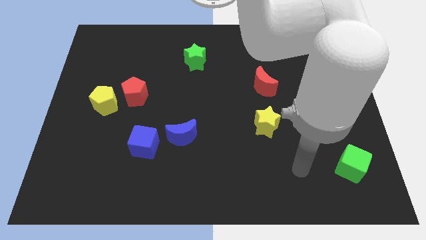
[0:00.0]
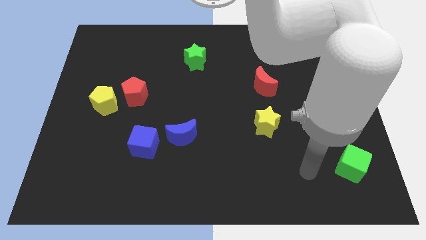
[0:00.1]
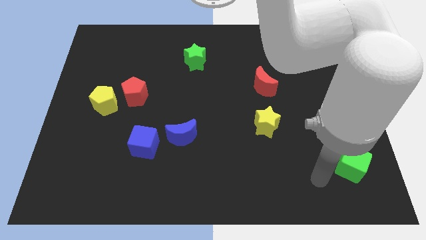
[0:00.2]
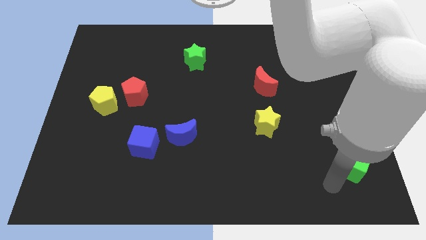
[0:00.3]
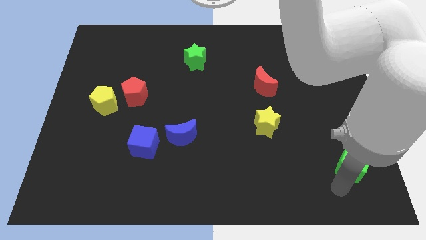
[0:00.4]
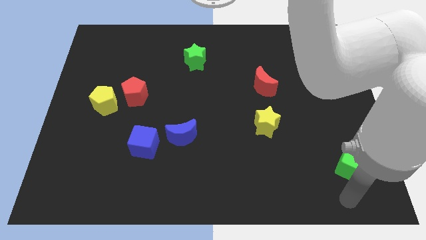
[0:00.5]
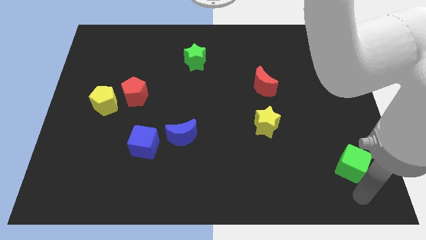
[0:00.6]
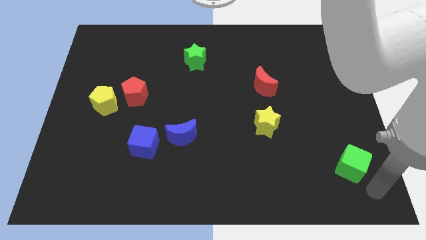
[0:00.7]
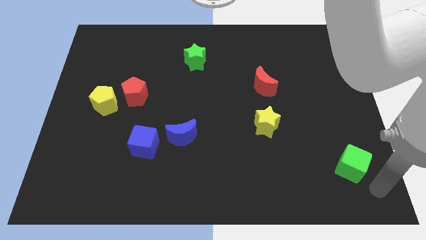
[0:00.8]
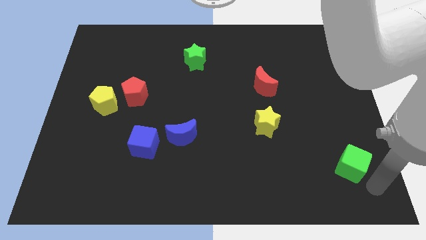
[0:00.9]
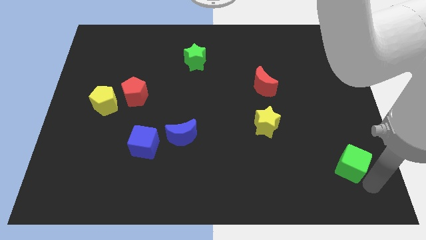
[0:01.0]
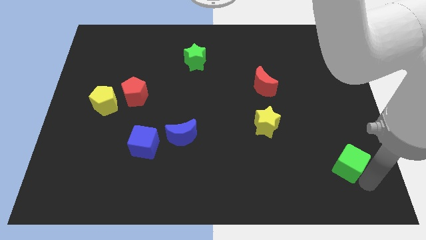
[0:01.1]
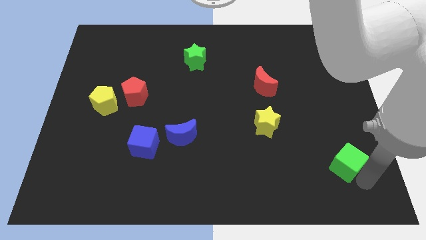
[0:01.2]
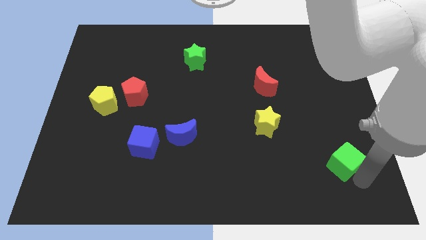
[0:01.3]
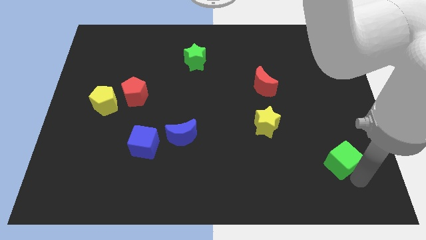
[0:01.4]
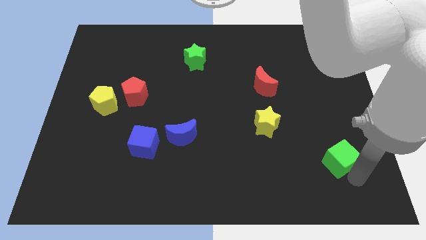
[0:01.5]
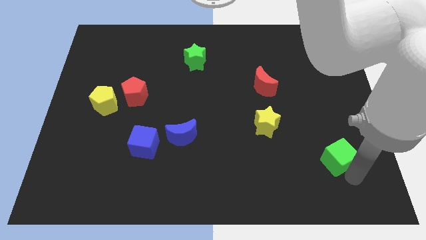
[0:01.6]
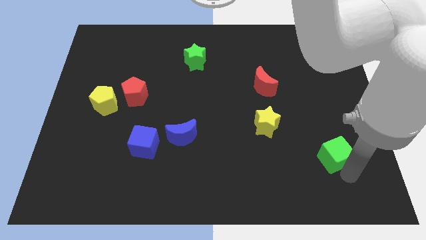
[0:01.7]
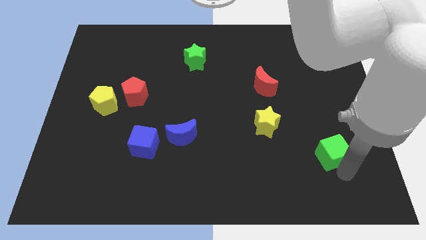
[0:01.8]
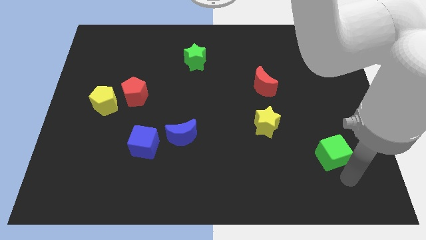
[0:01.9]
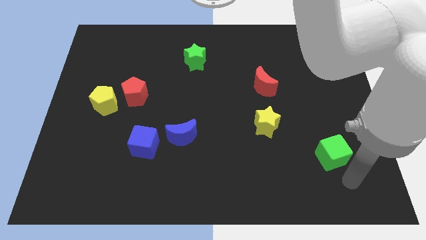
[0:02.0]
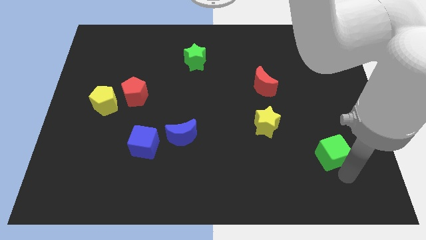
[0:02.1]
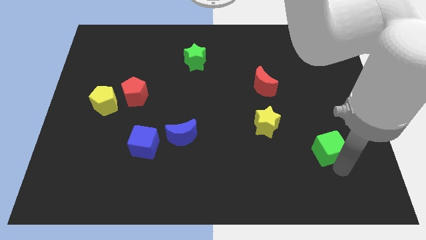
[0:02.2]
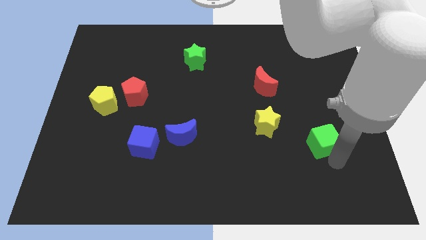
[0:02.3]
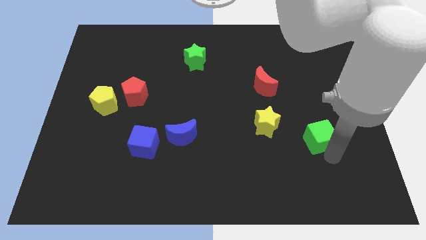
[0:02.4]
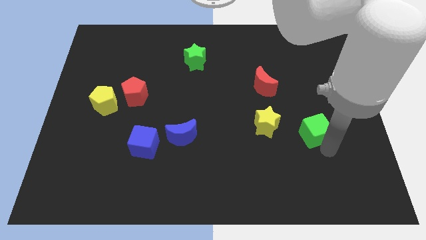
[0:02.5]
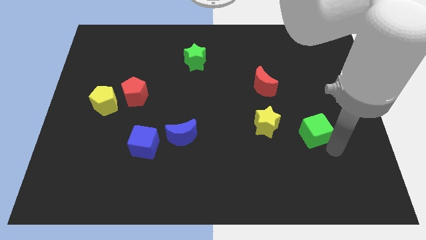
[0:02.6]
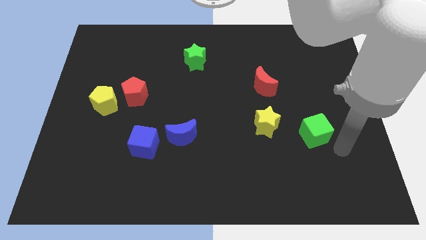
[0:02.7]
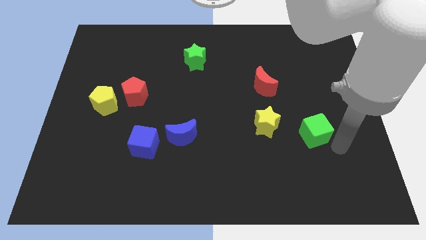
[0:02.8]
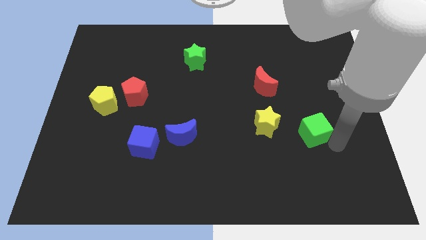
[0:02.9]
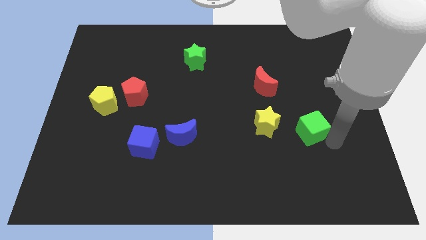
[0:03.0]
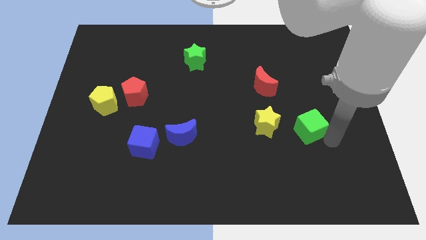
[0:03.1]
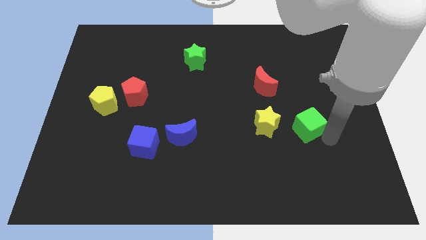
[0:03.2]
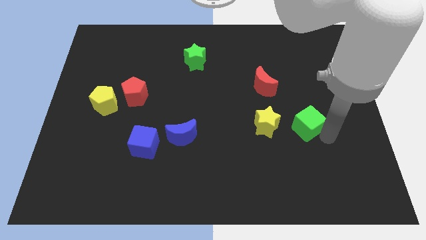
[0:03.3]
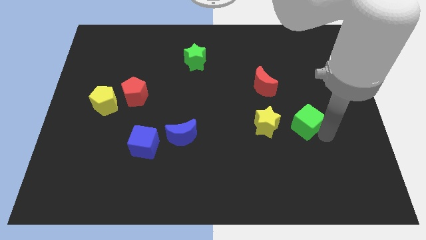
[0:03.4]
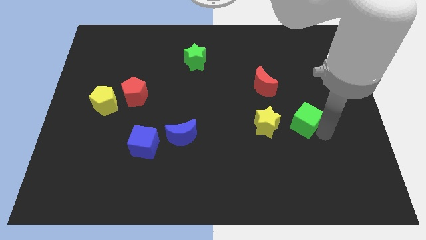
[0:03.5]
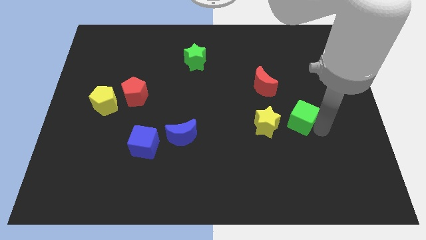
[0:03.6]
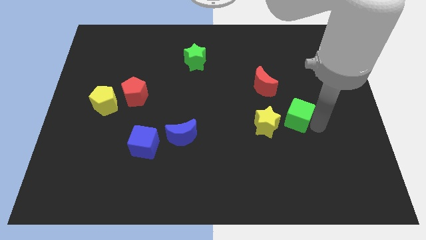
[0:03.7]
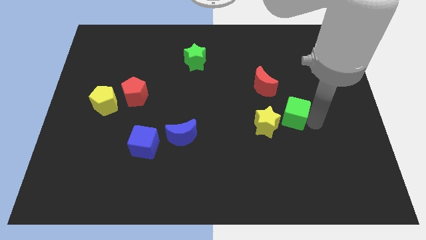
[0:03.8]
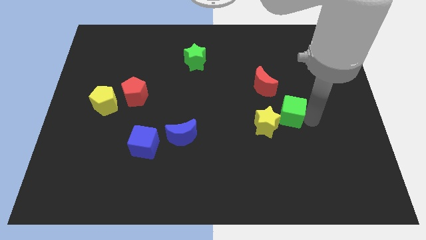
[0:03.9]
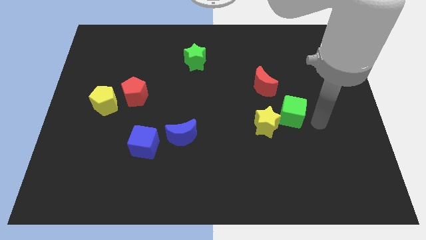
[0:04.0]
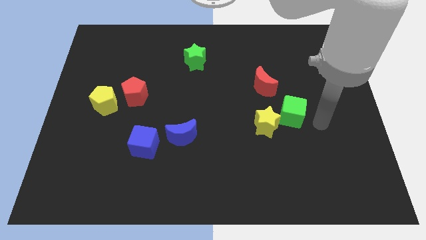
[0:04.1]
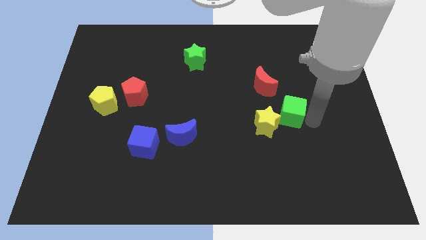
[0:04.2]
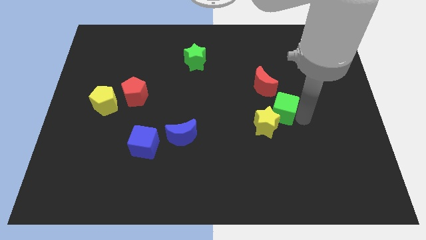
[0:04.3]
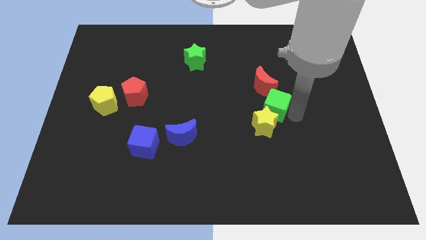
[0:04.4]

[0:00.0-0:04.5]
move the green cube up and then to the left

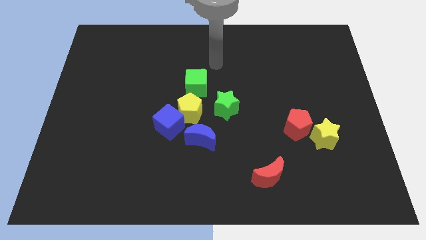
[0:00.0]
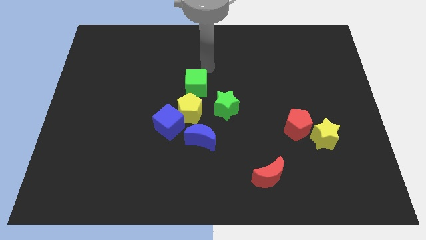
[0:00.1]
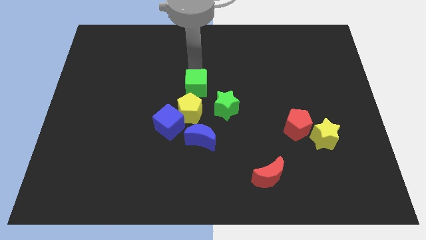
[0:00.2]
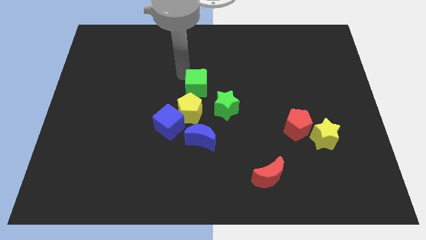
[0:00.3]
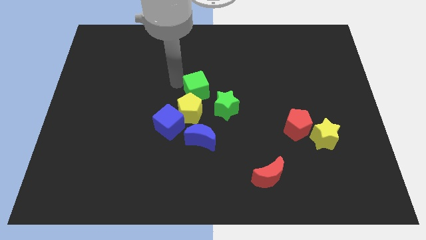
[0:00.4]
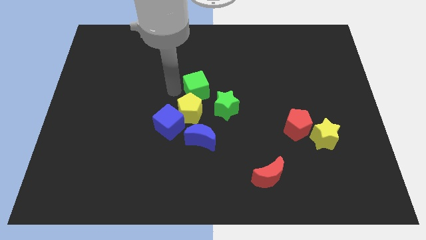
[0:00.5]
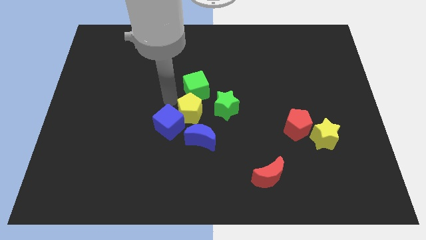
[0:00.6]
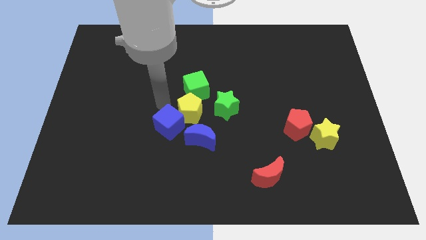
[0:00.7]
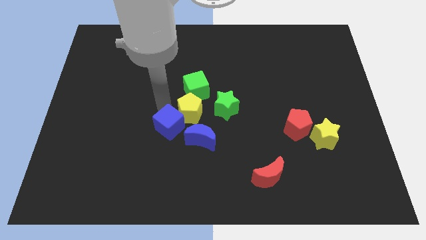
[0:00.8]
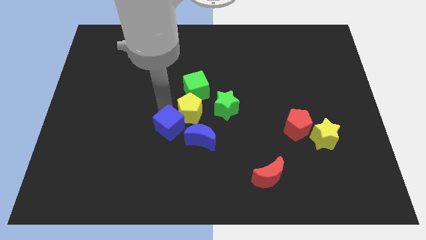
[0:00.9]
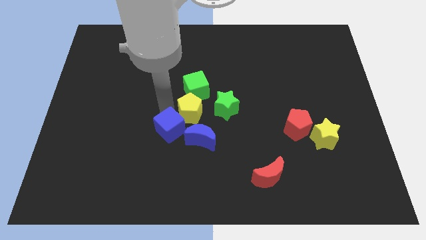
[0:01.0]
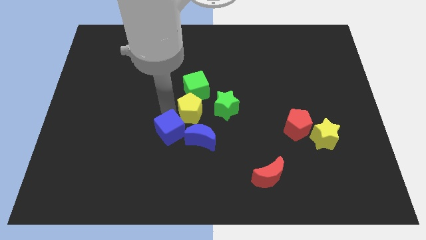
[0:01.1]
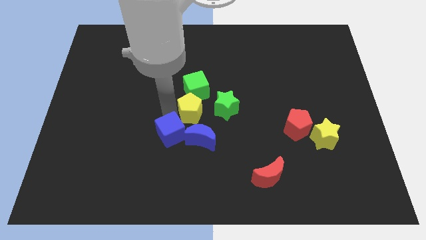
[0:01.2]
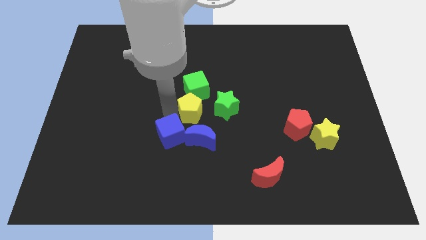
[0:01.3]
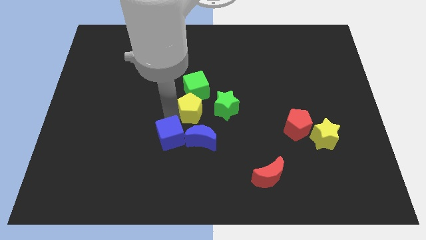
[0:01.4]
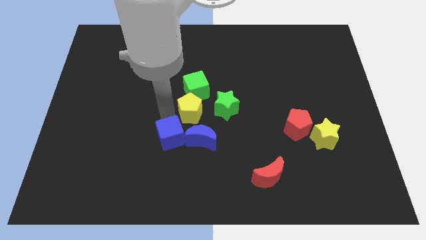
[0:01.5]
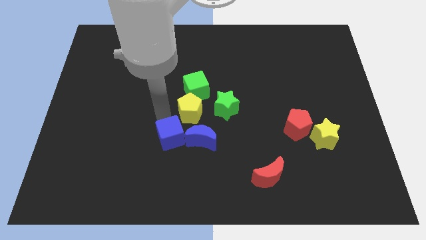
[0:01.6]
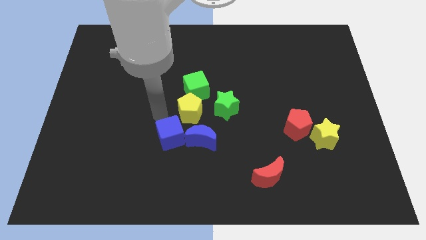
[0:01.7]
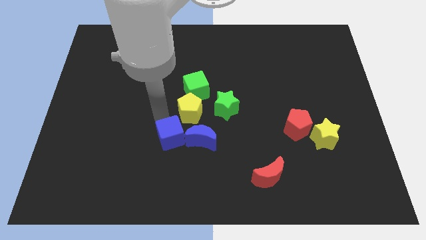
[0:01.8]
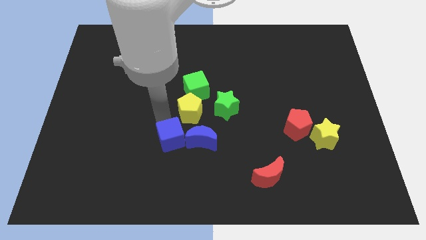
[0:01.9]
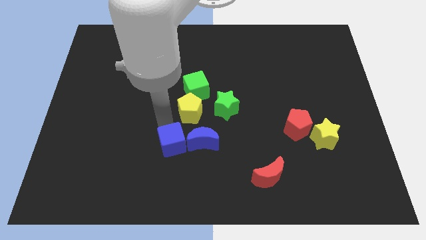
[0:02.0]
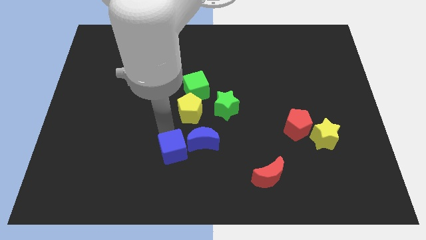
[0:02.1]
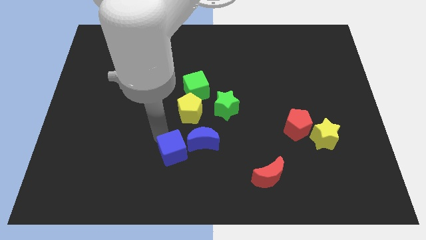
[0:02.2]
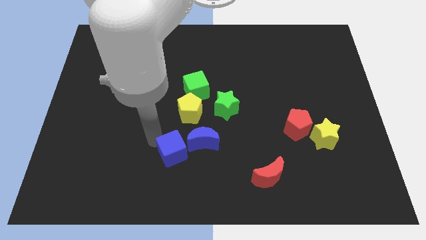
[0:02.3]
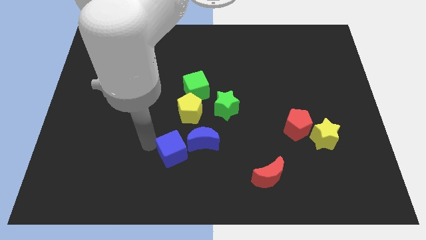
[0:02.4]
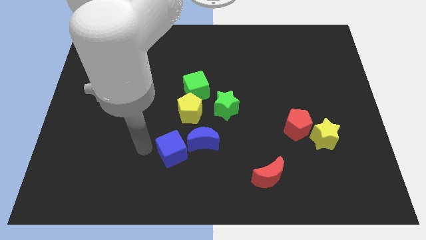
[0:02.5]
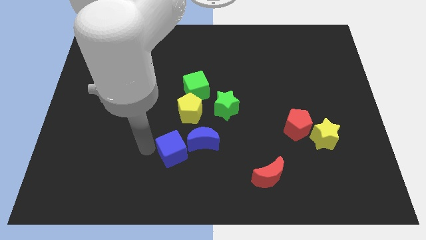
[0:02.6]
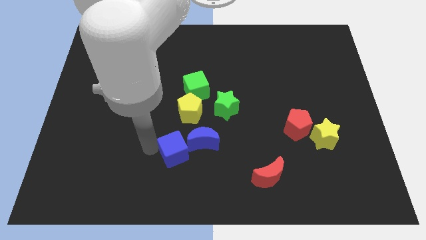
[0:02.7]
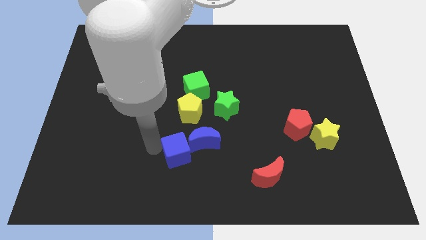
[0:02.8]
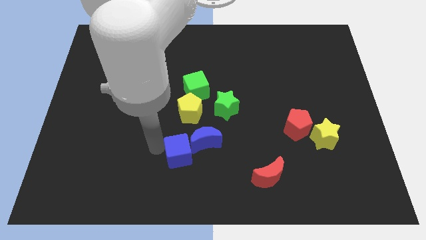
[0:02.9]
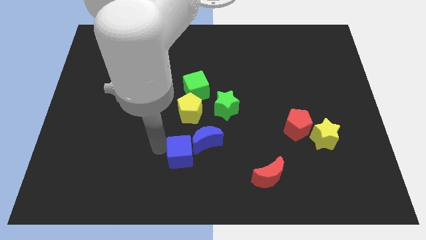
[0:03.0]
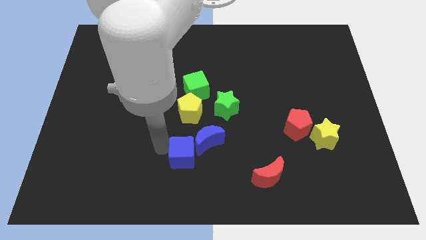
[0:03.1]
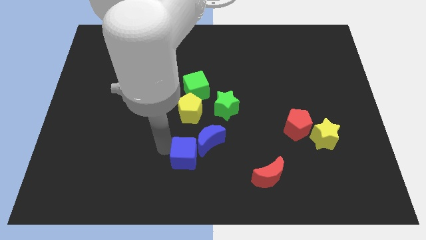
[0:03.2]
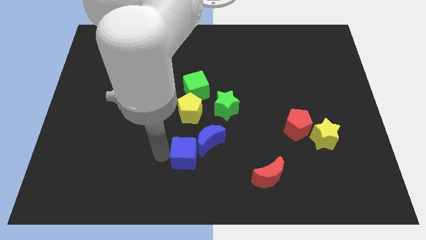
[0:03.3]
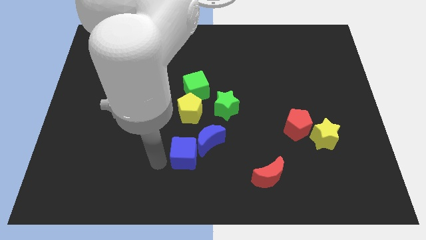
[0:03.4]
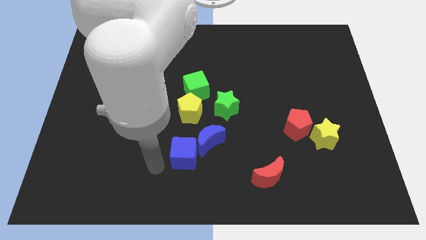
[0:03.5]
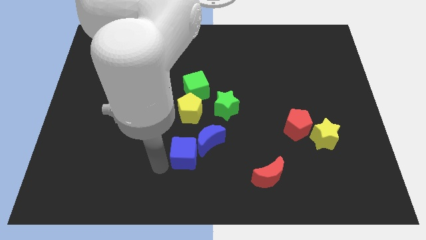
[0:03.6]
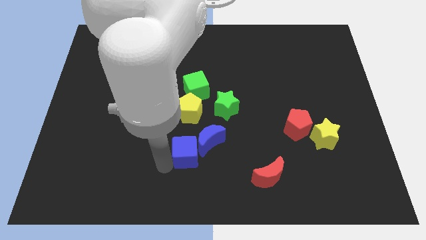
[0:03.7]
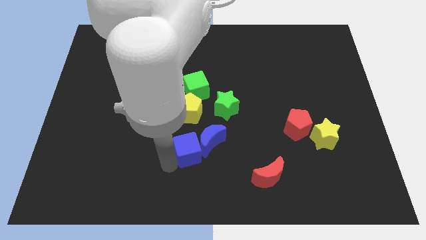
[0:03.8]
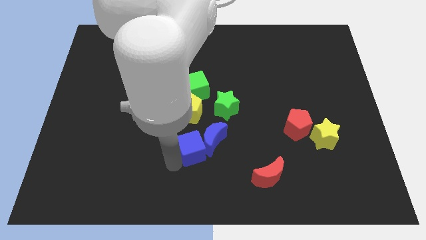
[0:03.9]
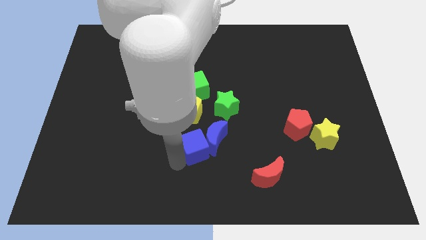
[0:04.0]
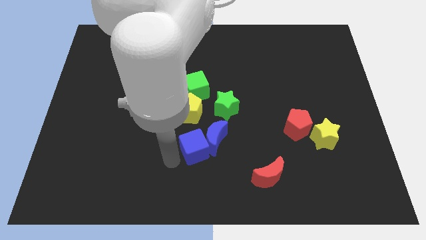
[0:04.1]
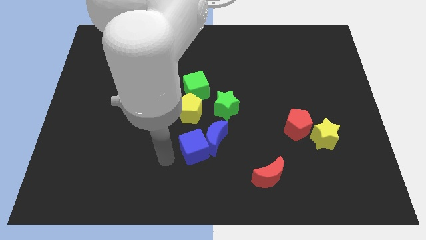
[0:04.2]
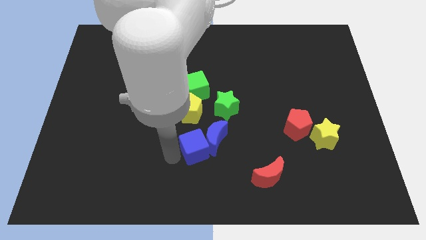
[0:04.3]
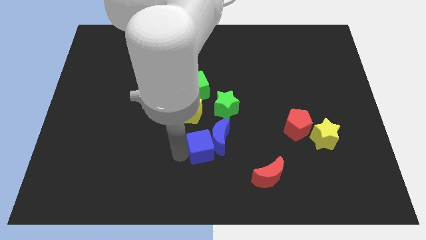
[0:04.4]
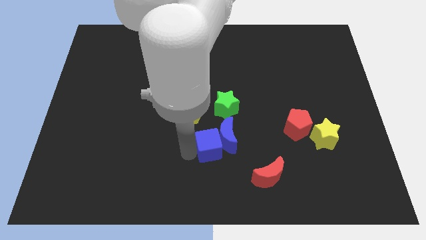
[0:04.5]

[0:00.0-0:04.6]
slide the blue cube to the right a little
